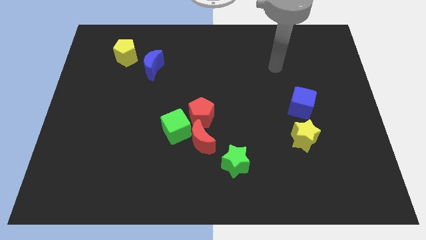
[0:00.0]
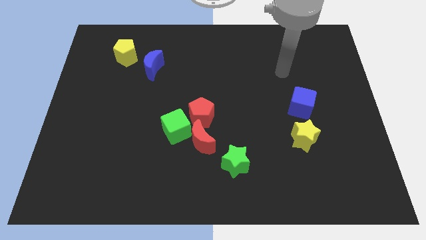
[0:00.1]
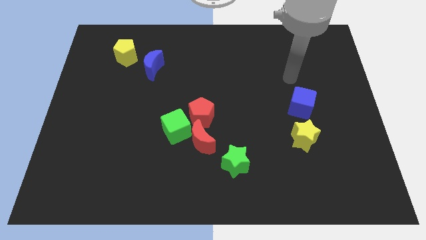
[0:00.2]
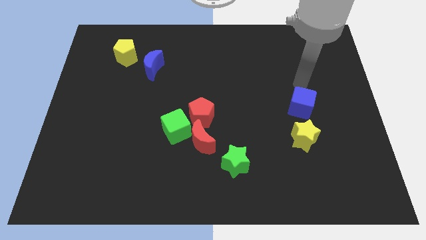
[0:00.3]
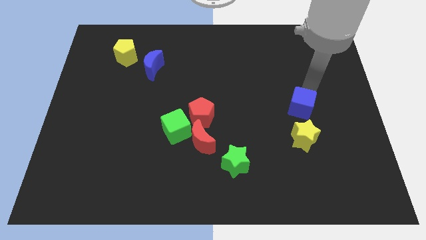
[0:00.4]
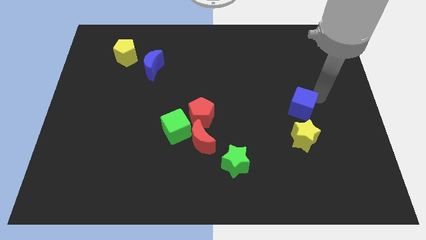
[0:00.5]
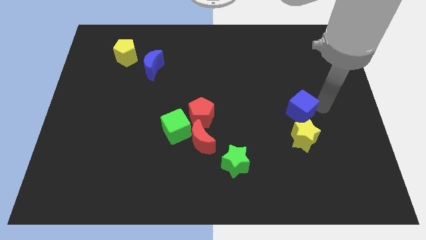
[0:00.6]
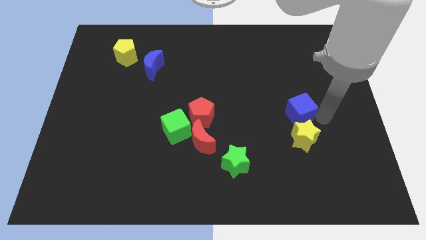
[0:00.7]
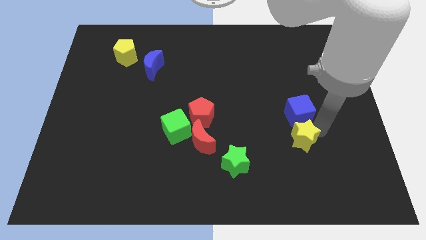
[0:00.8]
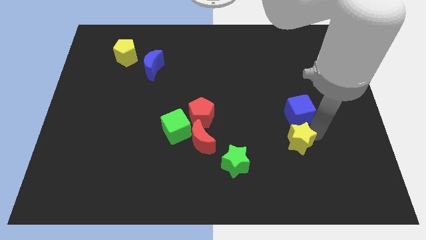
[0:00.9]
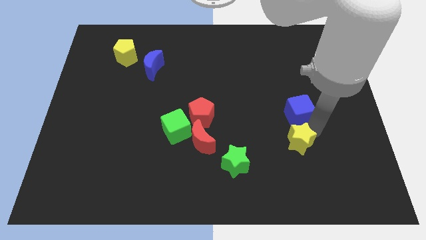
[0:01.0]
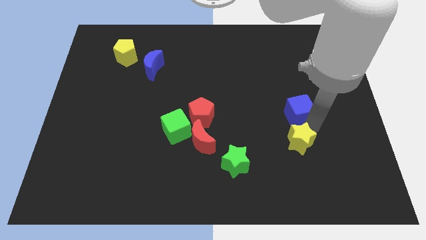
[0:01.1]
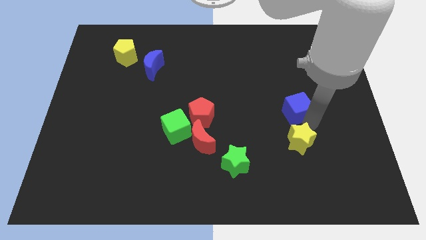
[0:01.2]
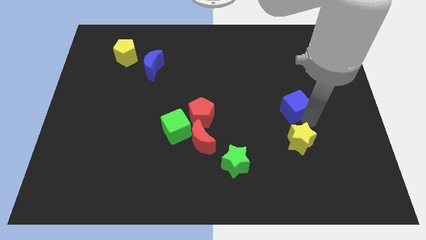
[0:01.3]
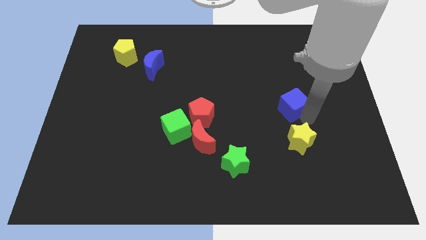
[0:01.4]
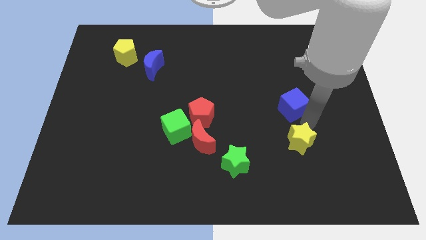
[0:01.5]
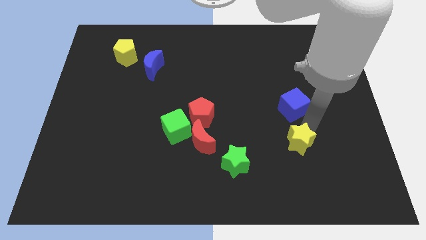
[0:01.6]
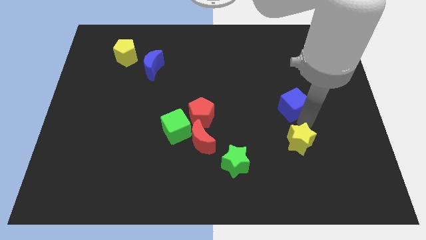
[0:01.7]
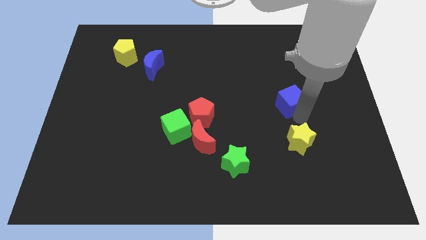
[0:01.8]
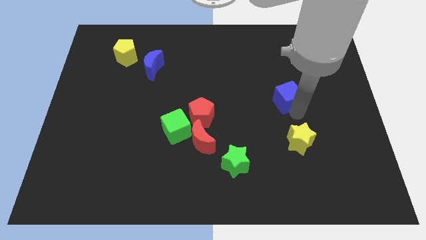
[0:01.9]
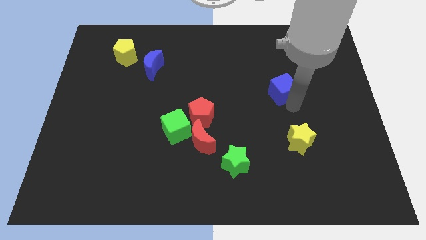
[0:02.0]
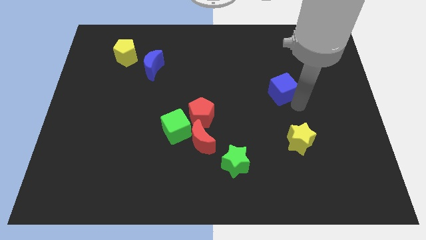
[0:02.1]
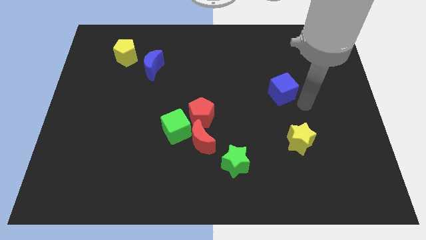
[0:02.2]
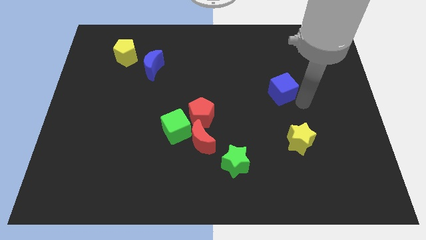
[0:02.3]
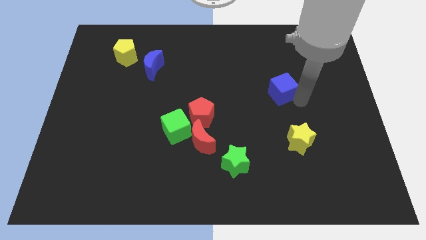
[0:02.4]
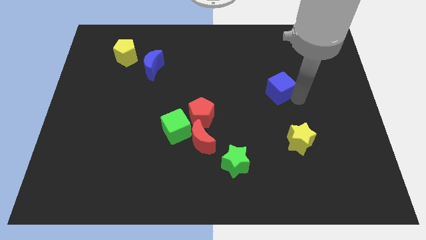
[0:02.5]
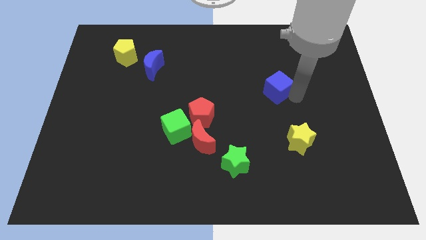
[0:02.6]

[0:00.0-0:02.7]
move the blue cube up and left diagonally a little bit

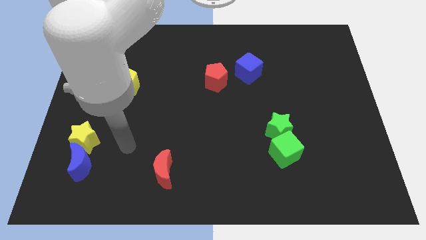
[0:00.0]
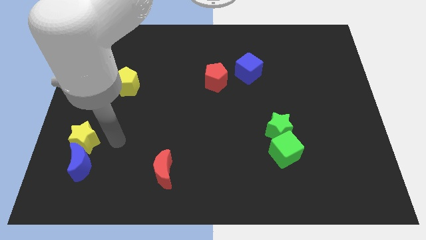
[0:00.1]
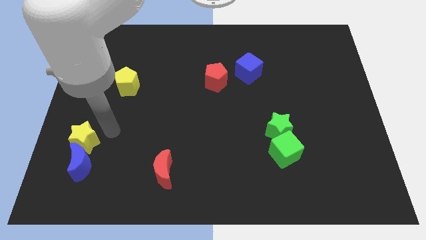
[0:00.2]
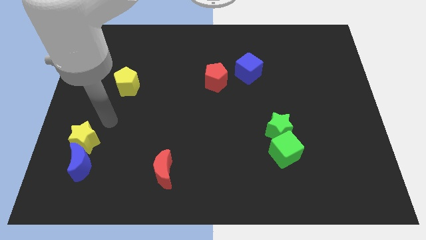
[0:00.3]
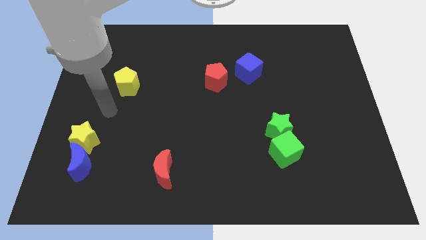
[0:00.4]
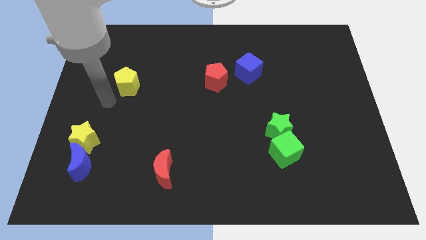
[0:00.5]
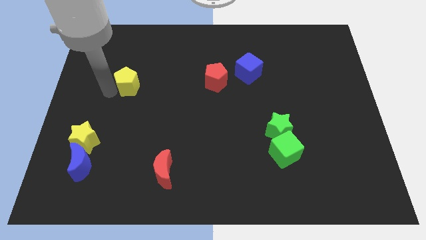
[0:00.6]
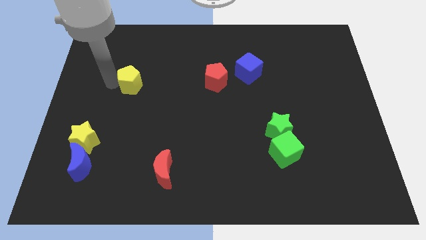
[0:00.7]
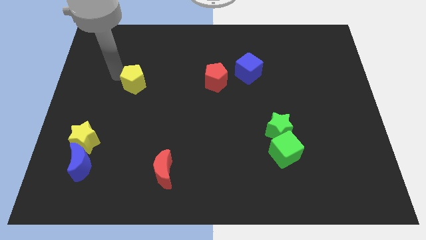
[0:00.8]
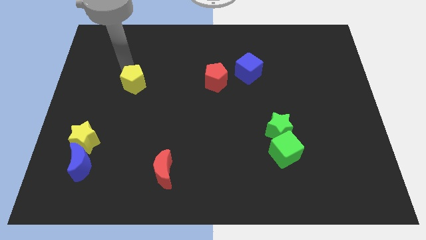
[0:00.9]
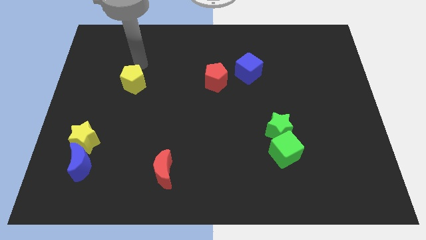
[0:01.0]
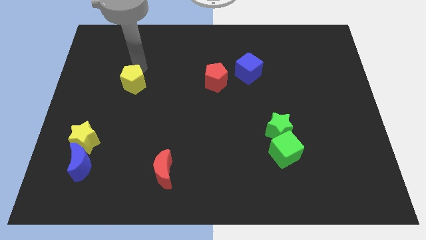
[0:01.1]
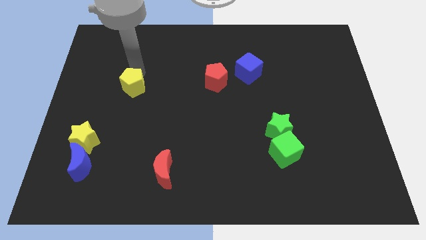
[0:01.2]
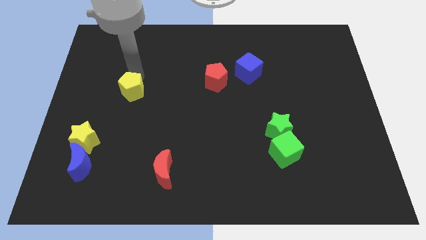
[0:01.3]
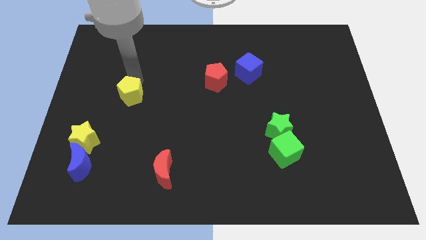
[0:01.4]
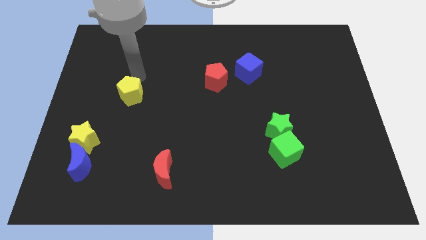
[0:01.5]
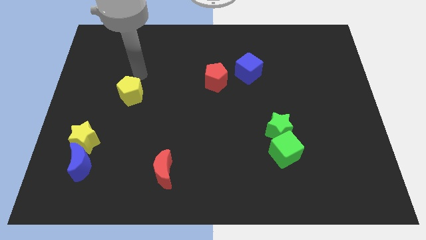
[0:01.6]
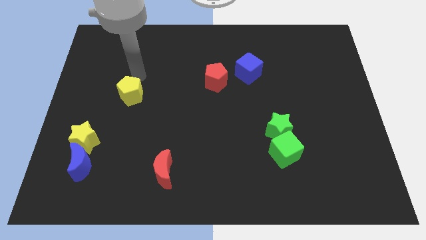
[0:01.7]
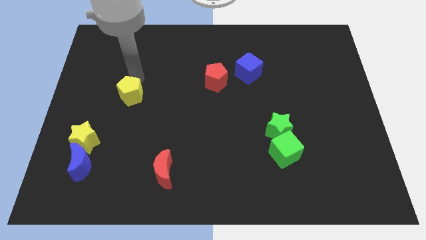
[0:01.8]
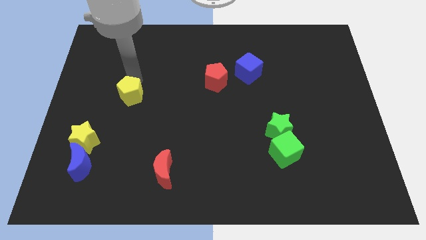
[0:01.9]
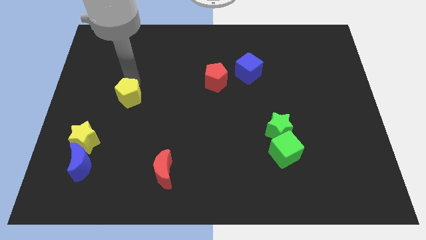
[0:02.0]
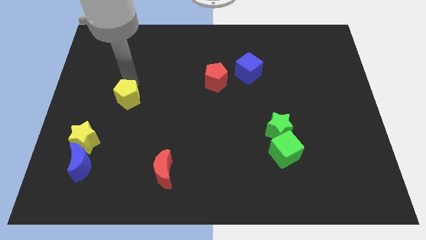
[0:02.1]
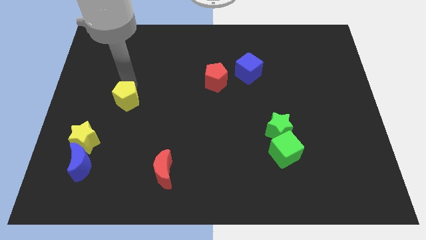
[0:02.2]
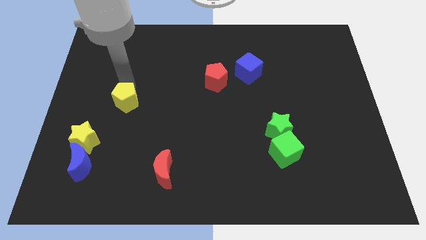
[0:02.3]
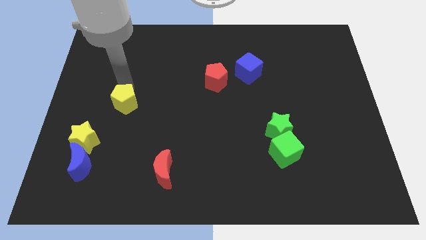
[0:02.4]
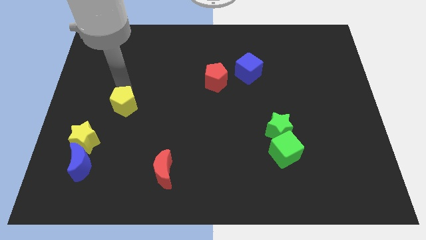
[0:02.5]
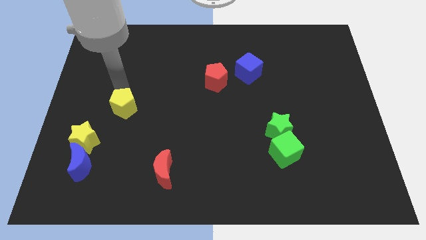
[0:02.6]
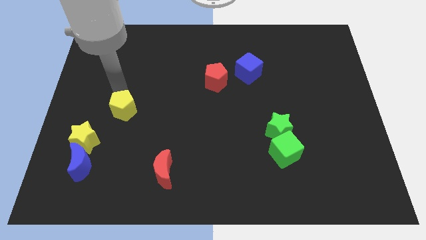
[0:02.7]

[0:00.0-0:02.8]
slightly move the yellow pentagon downwards

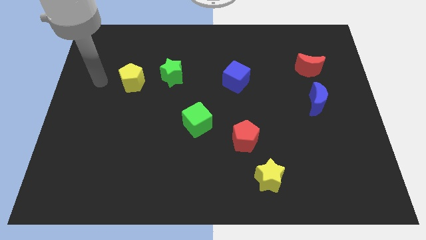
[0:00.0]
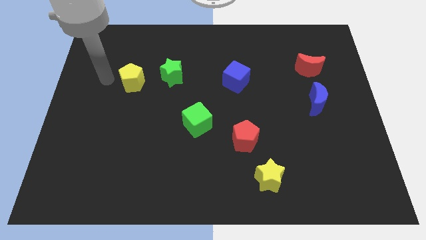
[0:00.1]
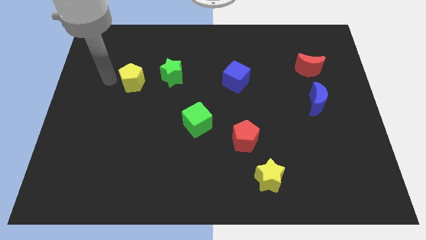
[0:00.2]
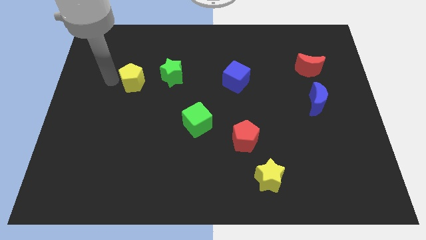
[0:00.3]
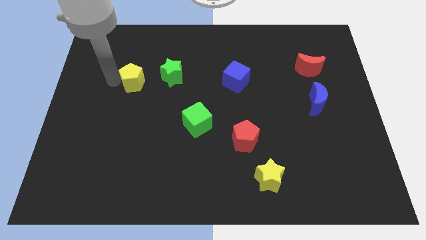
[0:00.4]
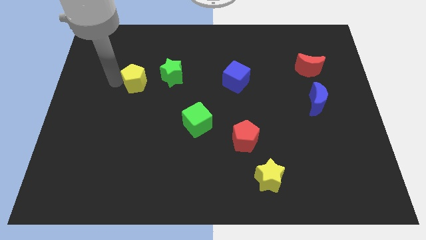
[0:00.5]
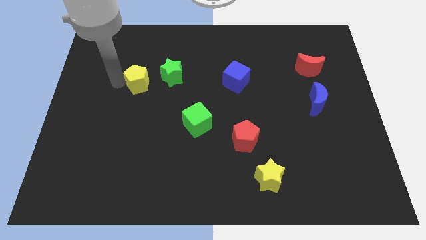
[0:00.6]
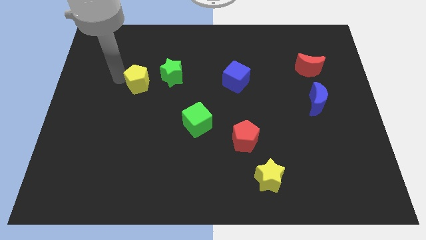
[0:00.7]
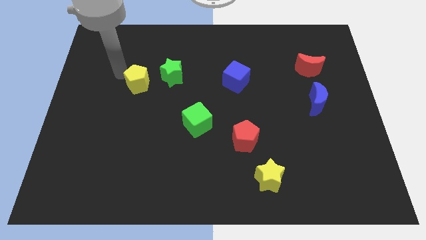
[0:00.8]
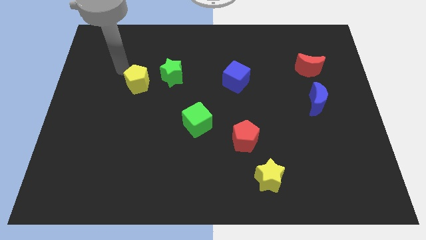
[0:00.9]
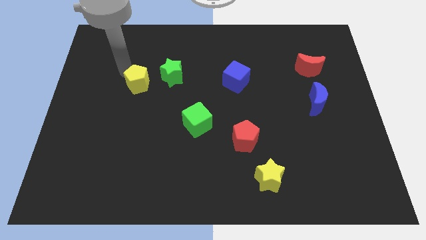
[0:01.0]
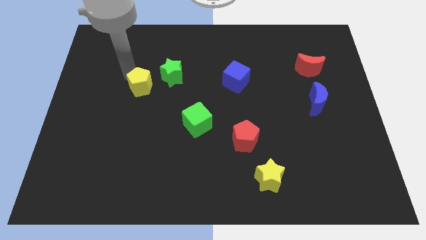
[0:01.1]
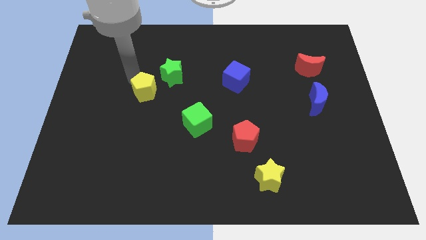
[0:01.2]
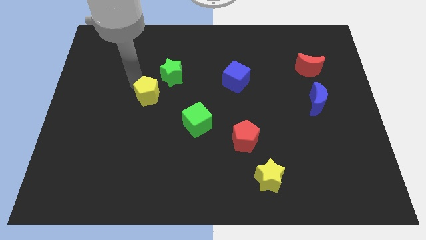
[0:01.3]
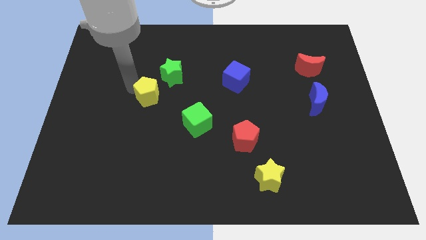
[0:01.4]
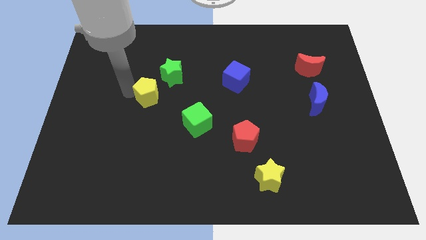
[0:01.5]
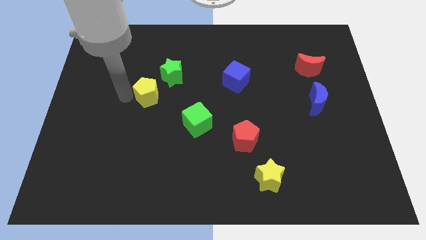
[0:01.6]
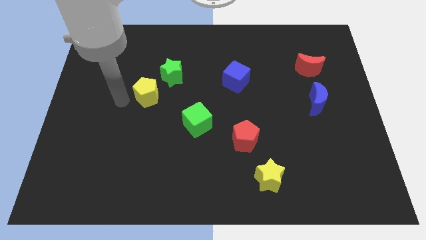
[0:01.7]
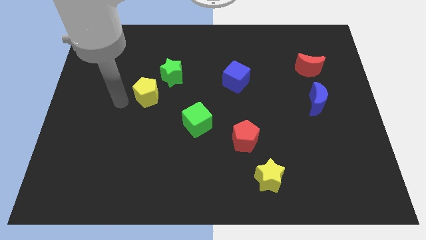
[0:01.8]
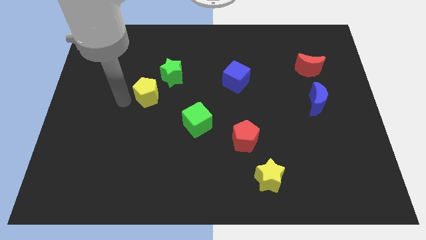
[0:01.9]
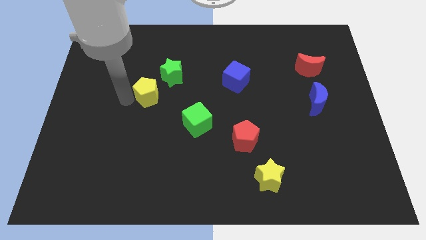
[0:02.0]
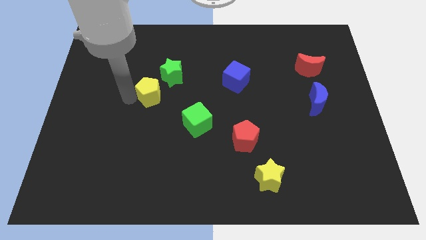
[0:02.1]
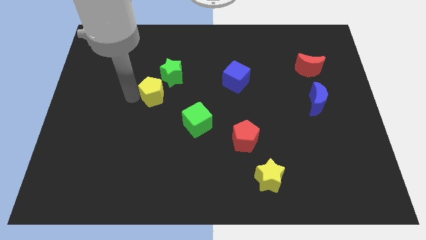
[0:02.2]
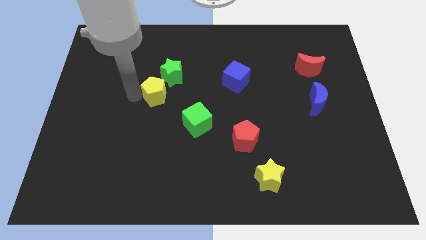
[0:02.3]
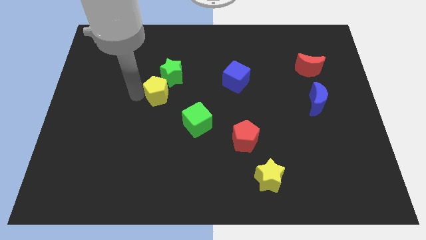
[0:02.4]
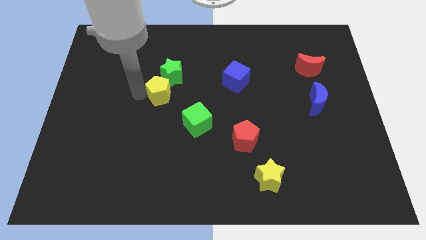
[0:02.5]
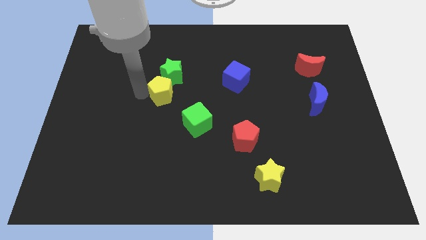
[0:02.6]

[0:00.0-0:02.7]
push the yellow pentagon right somewhat
